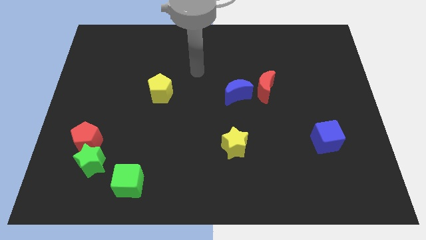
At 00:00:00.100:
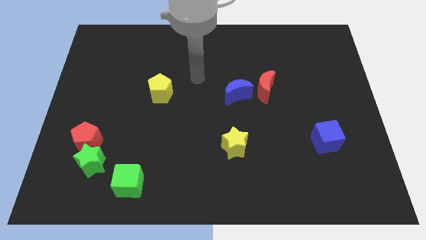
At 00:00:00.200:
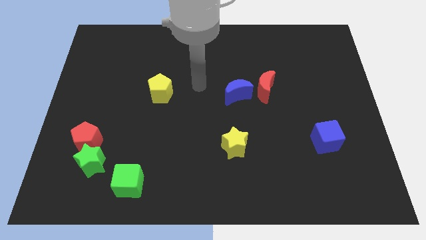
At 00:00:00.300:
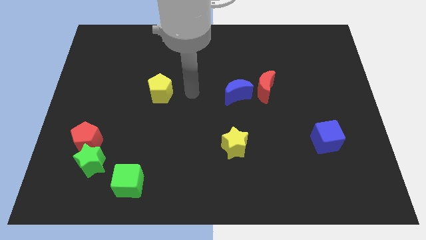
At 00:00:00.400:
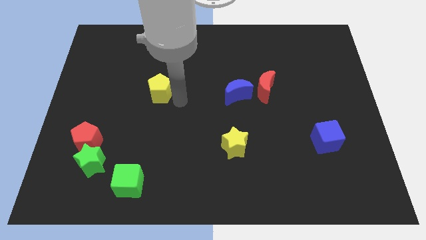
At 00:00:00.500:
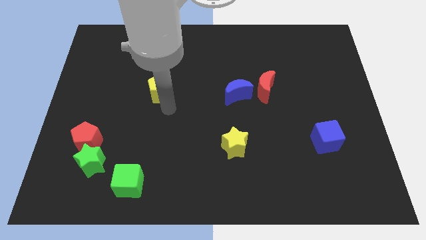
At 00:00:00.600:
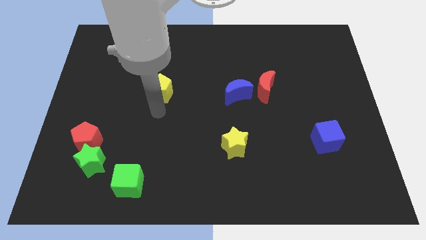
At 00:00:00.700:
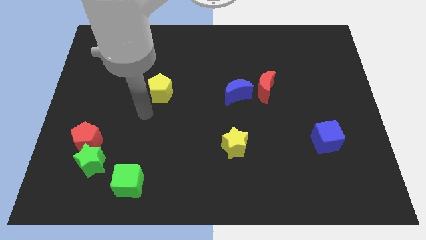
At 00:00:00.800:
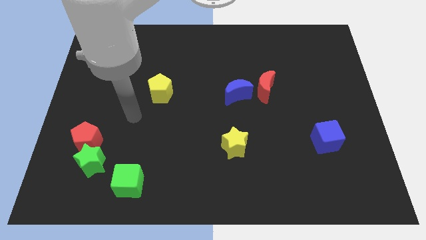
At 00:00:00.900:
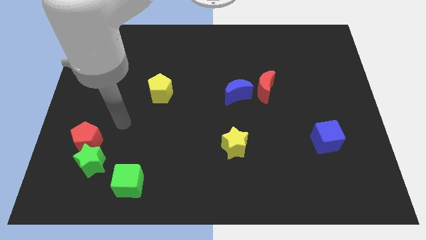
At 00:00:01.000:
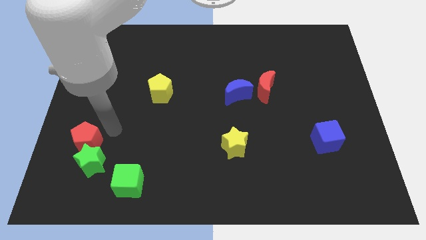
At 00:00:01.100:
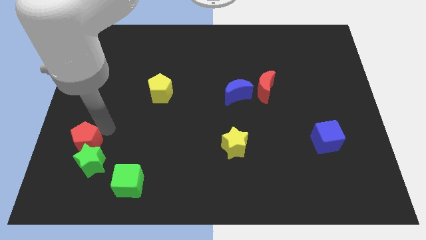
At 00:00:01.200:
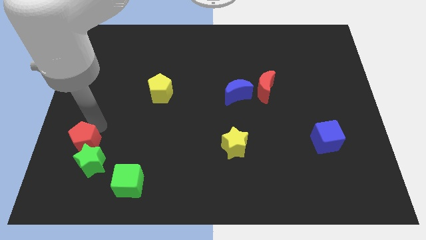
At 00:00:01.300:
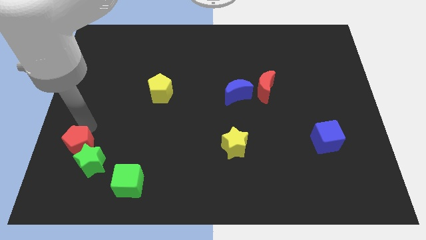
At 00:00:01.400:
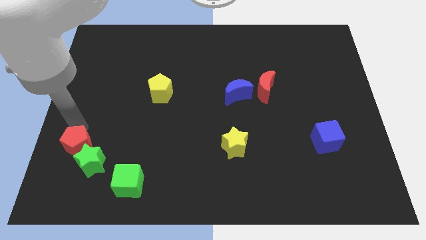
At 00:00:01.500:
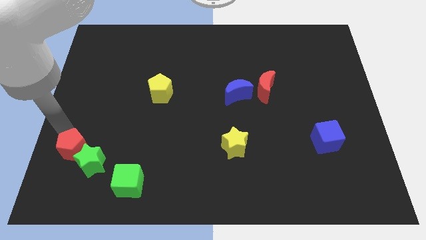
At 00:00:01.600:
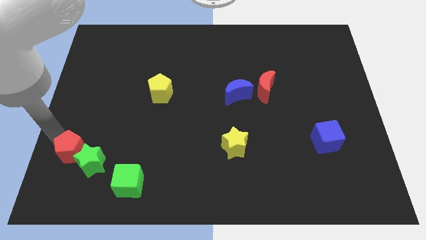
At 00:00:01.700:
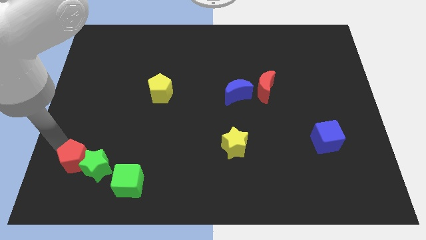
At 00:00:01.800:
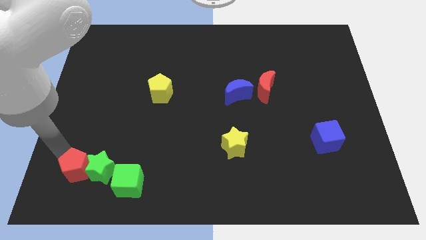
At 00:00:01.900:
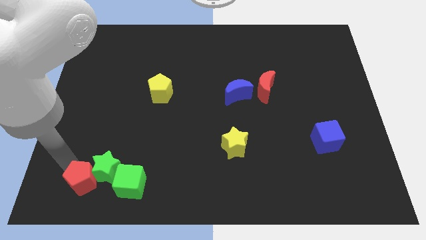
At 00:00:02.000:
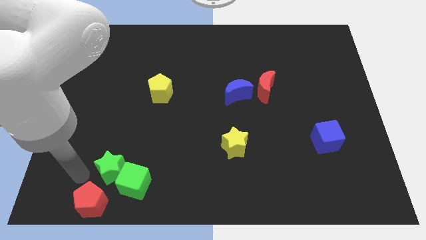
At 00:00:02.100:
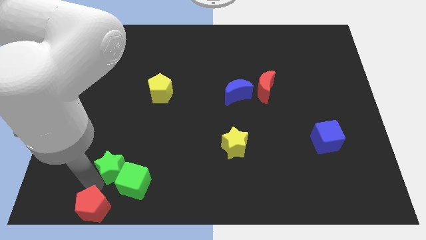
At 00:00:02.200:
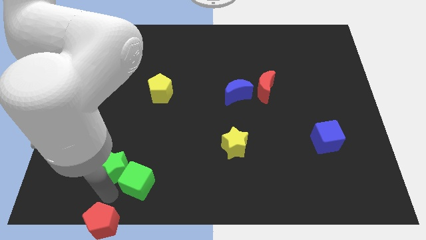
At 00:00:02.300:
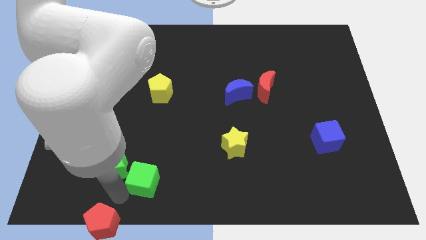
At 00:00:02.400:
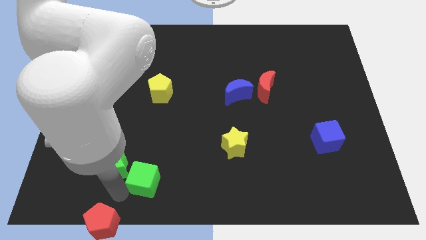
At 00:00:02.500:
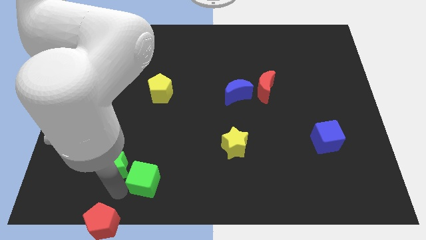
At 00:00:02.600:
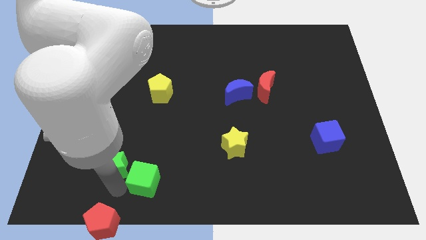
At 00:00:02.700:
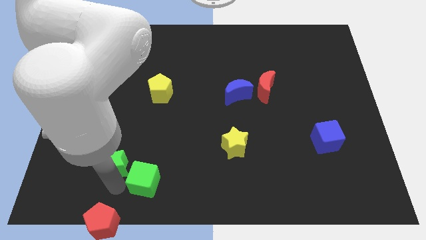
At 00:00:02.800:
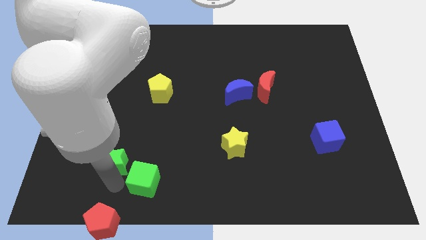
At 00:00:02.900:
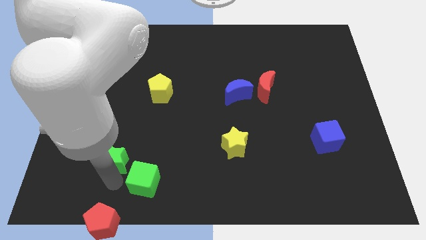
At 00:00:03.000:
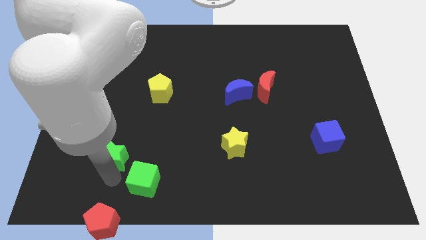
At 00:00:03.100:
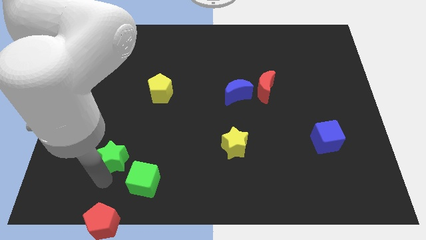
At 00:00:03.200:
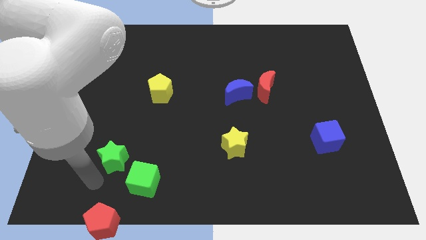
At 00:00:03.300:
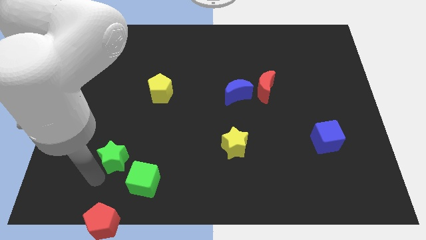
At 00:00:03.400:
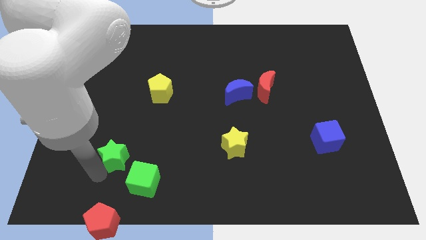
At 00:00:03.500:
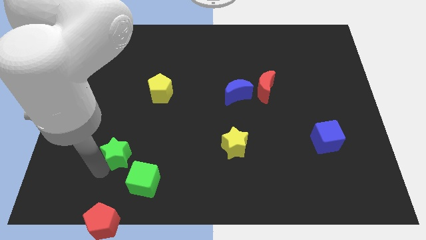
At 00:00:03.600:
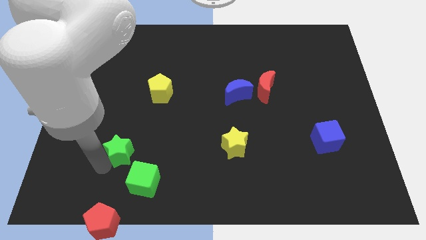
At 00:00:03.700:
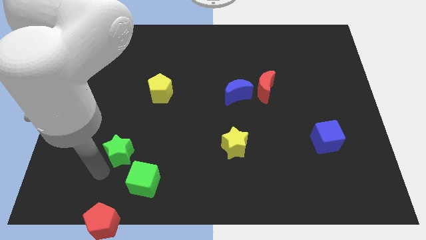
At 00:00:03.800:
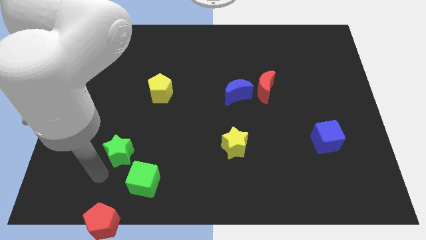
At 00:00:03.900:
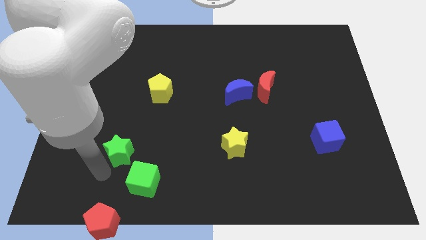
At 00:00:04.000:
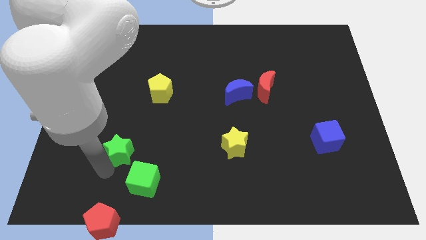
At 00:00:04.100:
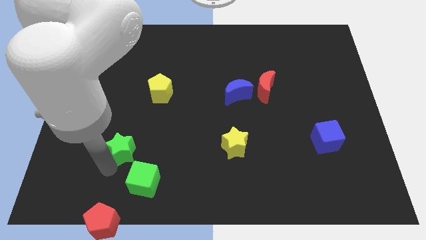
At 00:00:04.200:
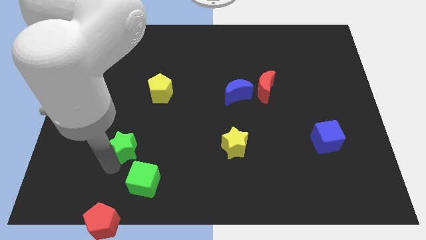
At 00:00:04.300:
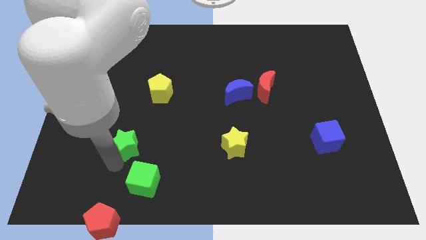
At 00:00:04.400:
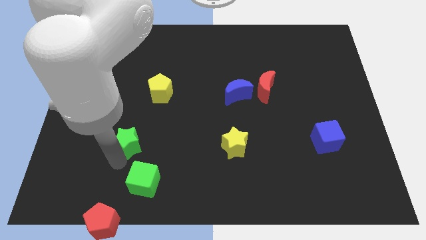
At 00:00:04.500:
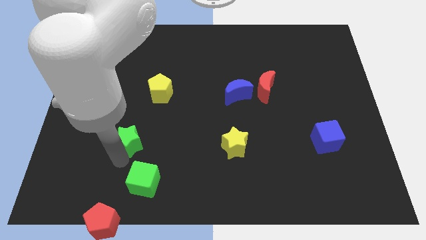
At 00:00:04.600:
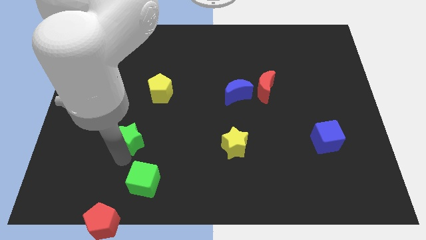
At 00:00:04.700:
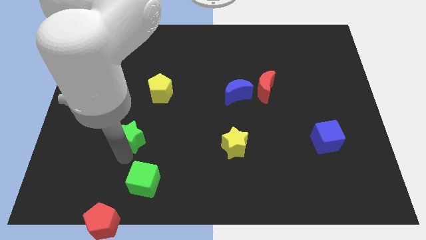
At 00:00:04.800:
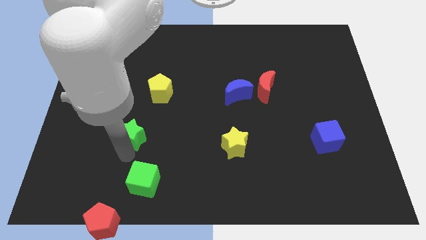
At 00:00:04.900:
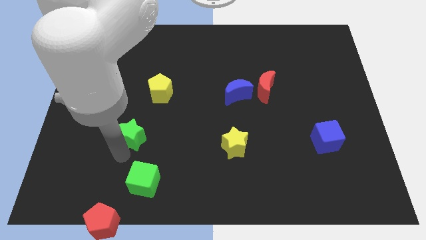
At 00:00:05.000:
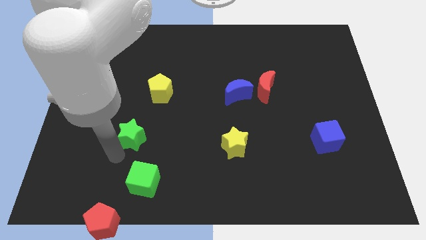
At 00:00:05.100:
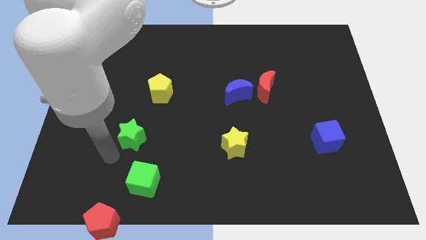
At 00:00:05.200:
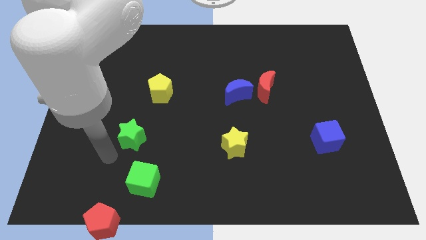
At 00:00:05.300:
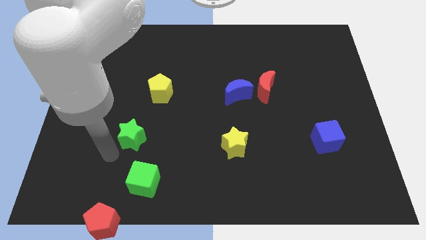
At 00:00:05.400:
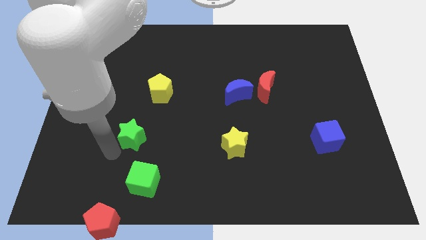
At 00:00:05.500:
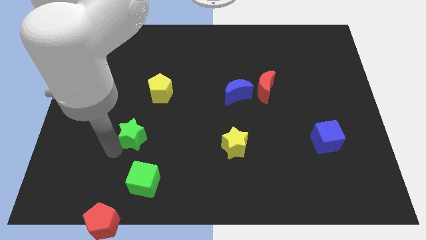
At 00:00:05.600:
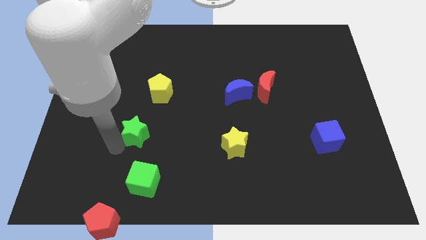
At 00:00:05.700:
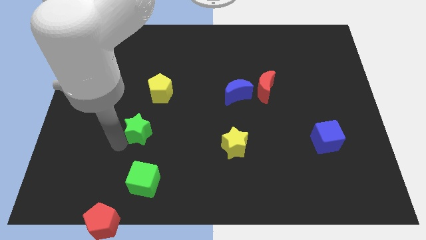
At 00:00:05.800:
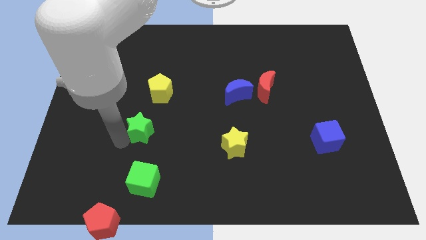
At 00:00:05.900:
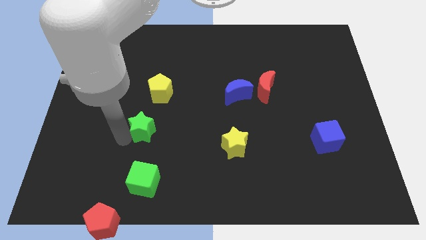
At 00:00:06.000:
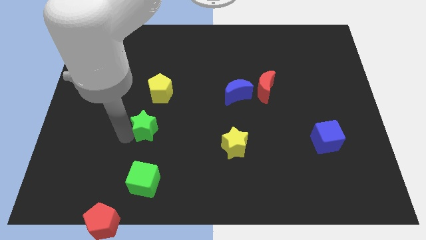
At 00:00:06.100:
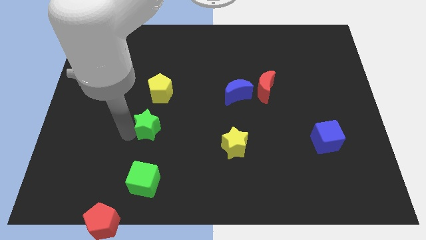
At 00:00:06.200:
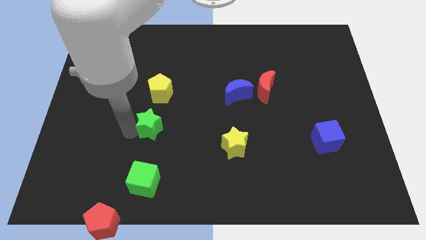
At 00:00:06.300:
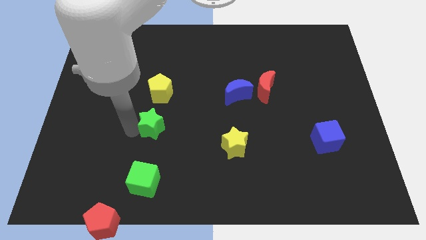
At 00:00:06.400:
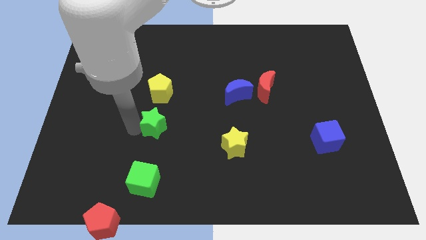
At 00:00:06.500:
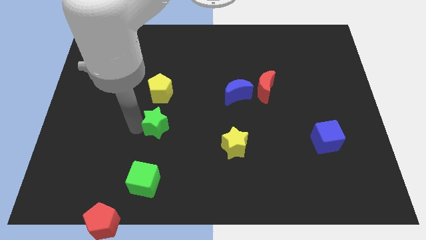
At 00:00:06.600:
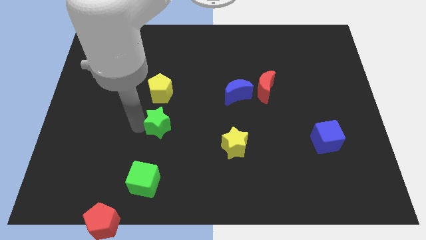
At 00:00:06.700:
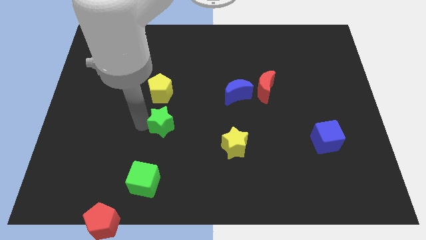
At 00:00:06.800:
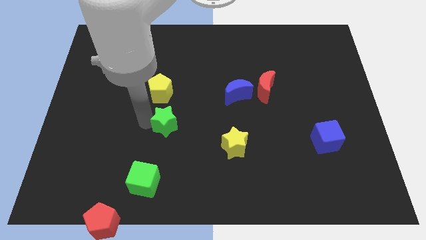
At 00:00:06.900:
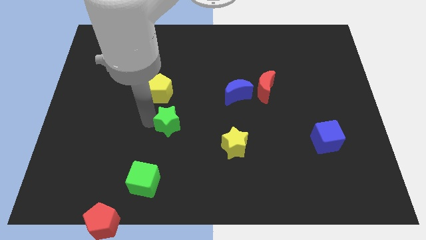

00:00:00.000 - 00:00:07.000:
slide the green star to the center of the board

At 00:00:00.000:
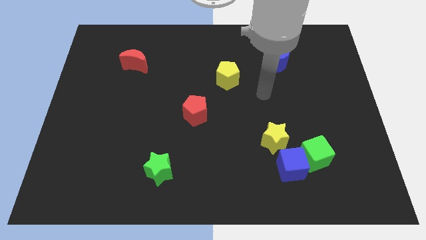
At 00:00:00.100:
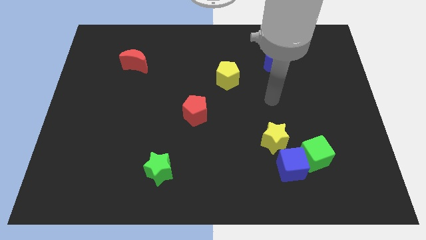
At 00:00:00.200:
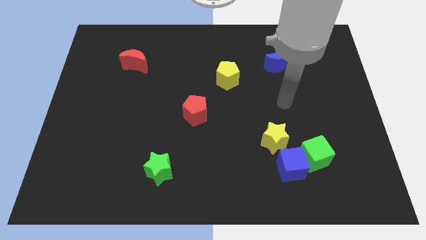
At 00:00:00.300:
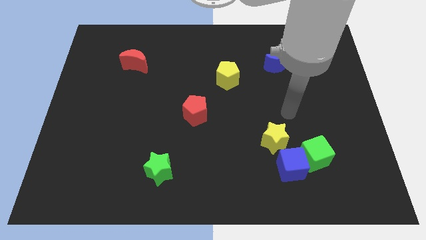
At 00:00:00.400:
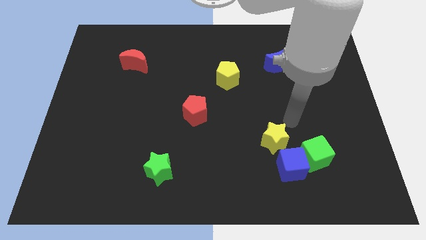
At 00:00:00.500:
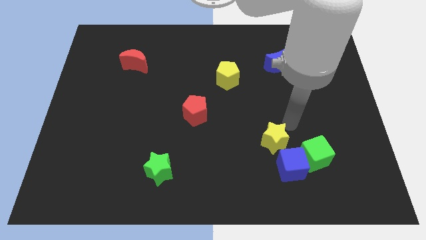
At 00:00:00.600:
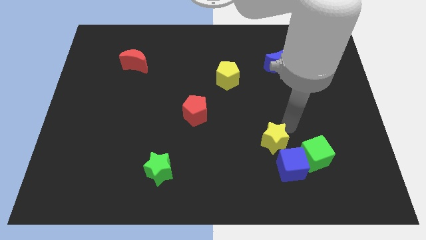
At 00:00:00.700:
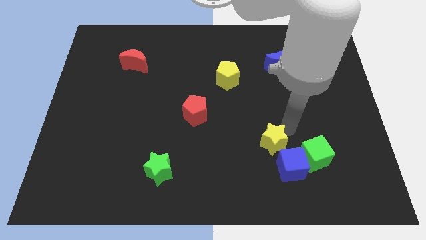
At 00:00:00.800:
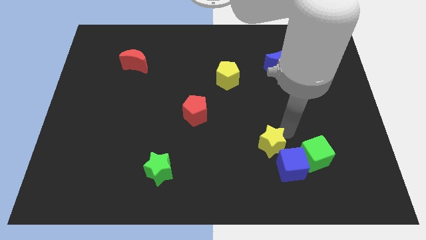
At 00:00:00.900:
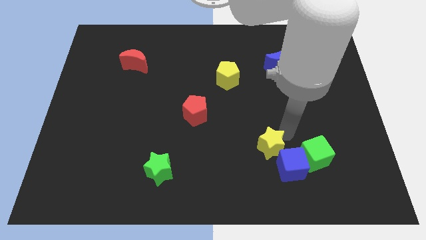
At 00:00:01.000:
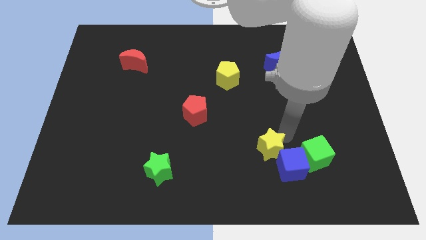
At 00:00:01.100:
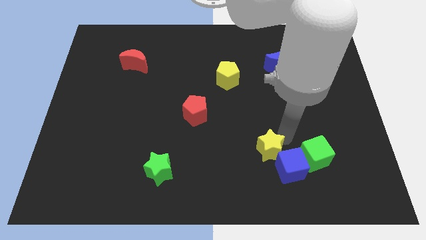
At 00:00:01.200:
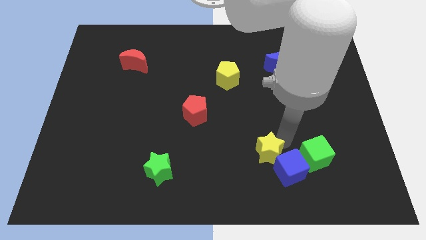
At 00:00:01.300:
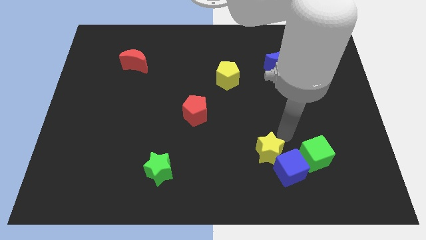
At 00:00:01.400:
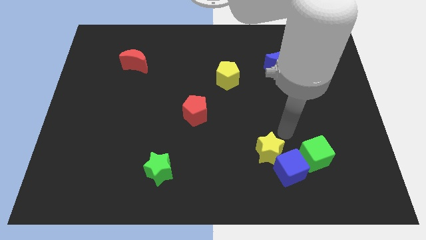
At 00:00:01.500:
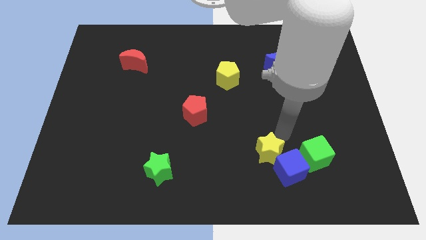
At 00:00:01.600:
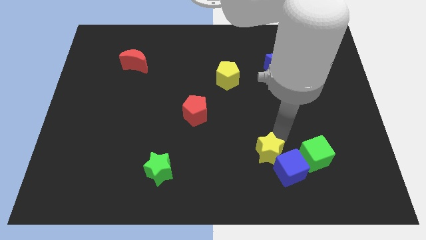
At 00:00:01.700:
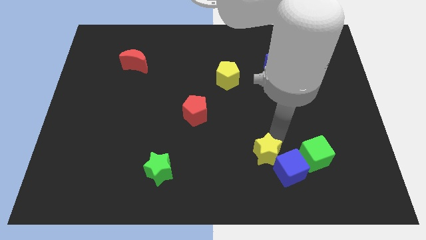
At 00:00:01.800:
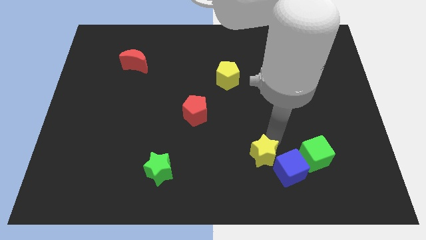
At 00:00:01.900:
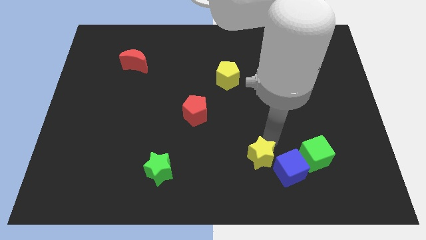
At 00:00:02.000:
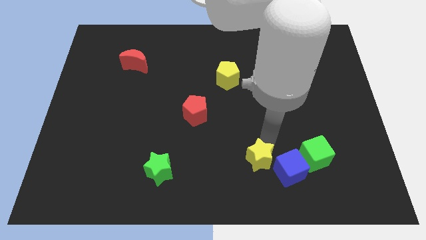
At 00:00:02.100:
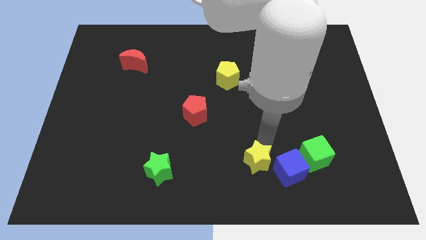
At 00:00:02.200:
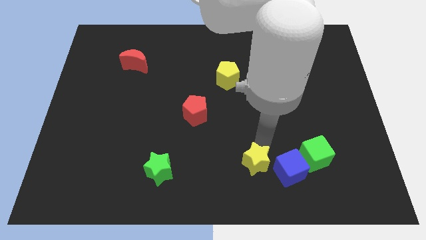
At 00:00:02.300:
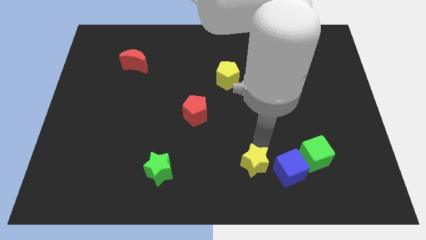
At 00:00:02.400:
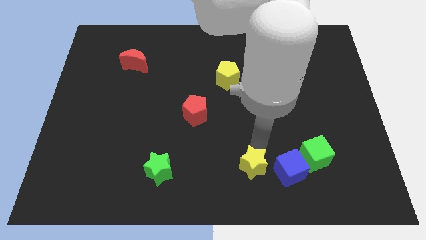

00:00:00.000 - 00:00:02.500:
put the yellow star to the bottom
